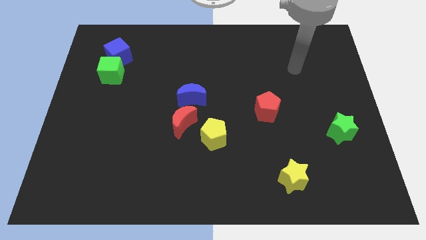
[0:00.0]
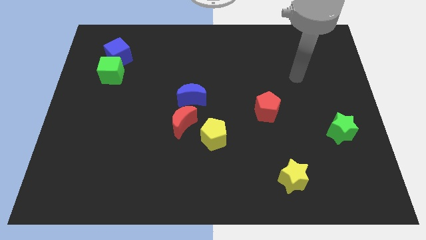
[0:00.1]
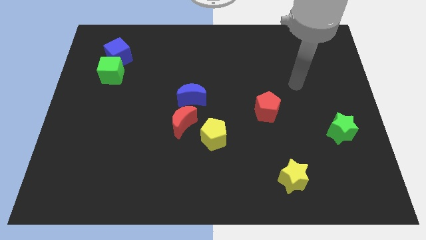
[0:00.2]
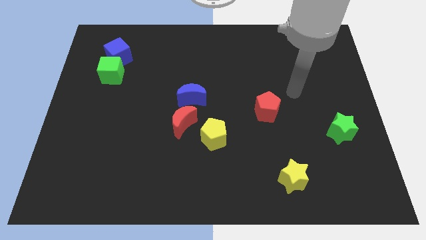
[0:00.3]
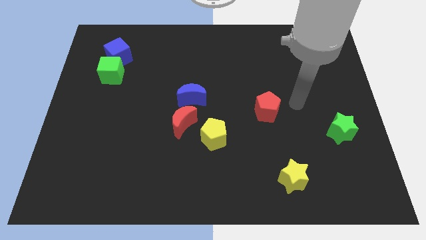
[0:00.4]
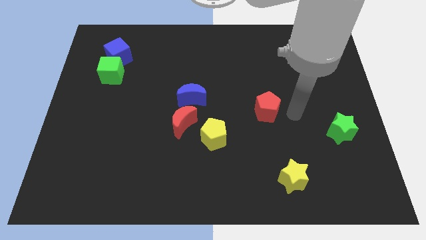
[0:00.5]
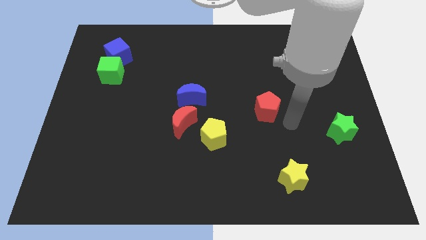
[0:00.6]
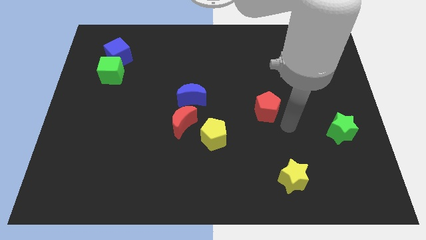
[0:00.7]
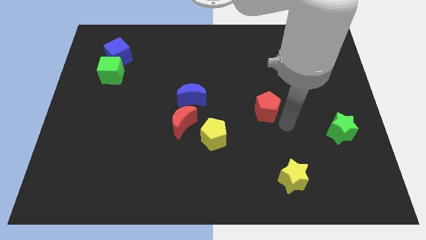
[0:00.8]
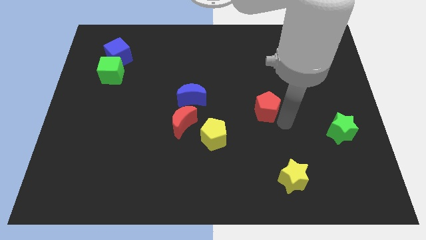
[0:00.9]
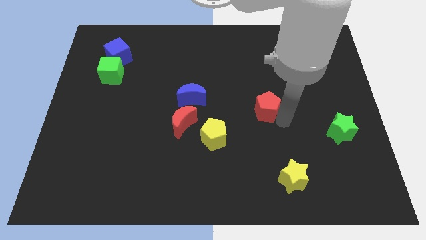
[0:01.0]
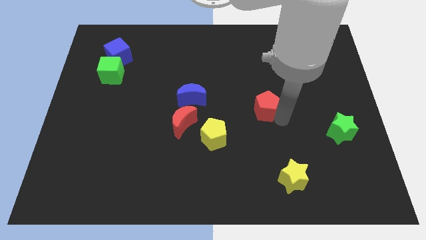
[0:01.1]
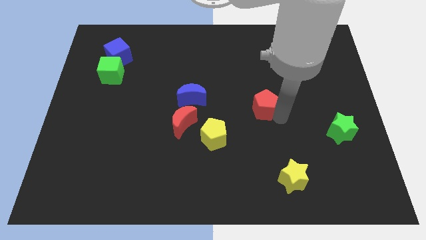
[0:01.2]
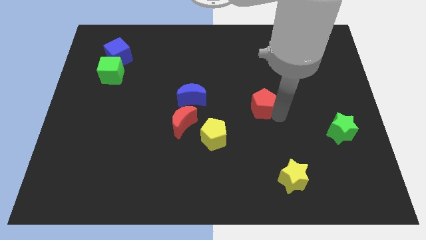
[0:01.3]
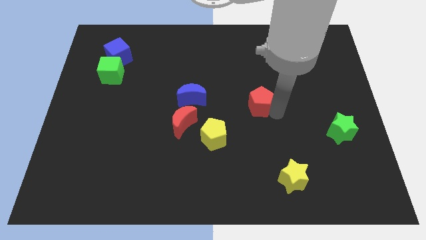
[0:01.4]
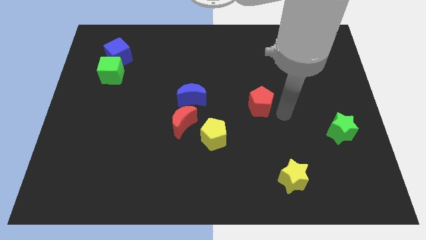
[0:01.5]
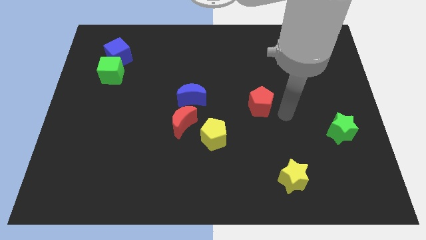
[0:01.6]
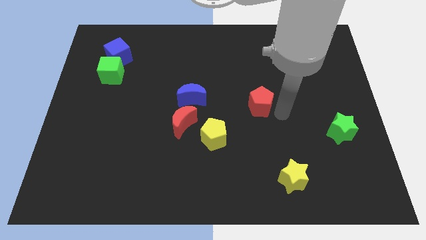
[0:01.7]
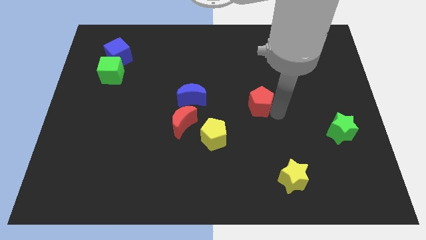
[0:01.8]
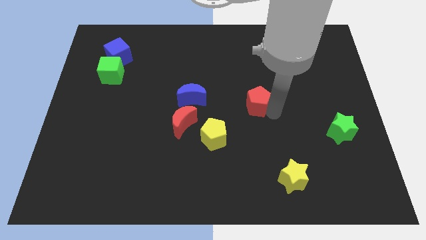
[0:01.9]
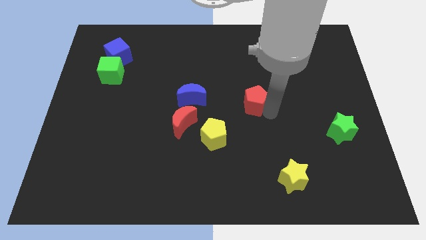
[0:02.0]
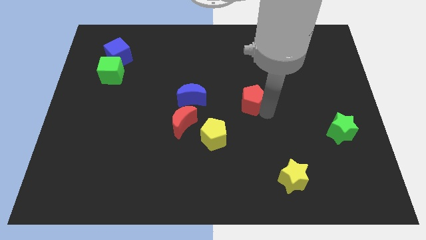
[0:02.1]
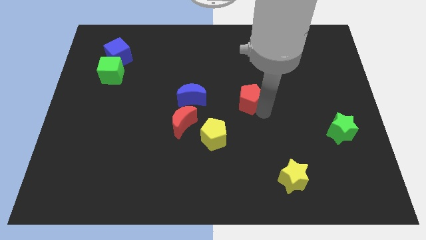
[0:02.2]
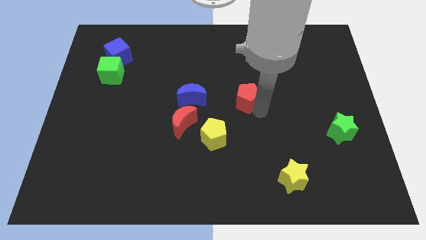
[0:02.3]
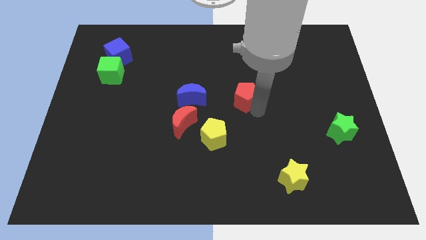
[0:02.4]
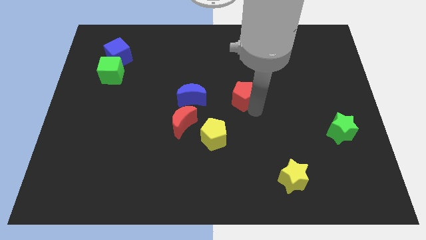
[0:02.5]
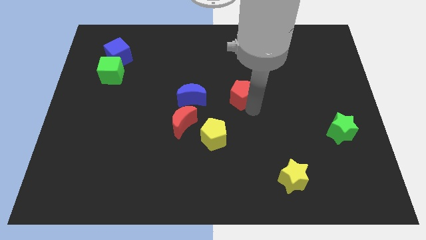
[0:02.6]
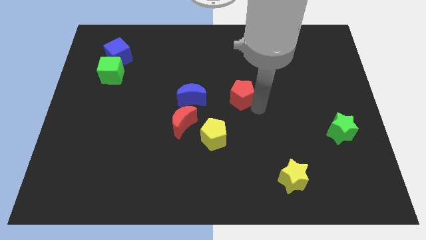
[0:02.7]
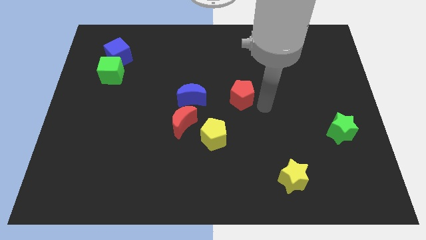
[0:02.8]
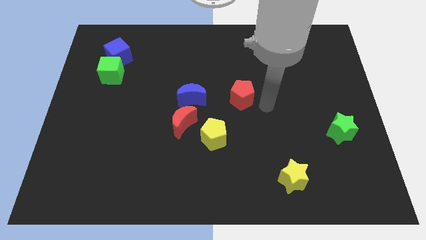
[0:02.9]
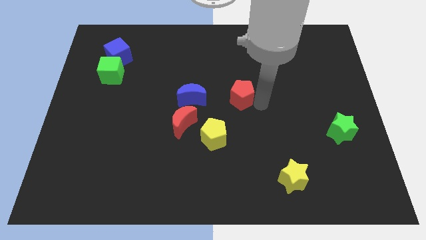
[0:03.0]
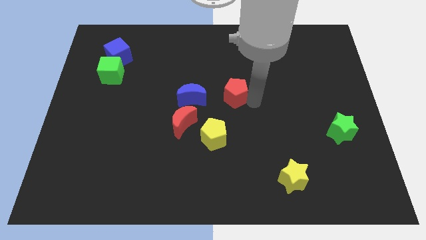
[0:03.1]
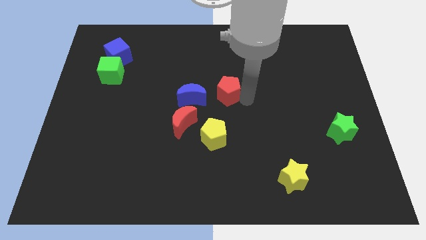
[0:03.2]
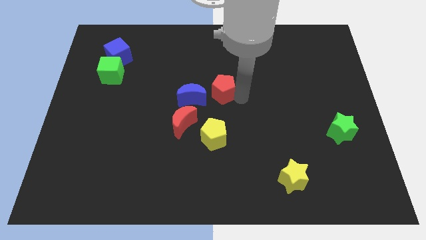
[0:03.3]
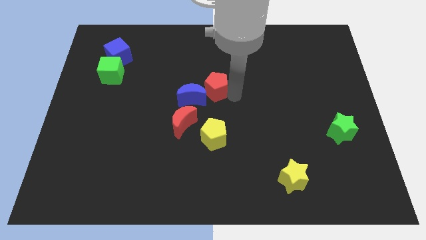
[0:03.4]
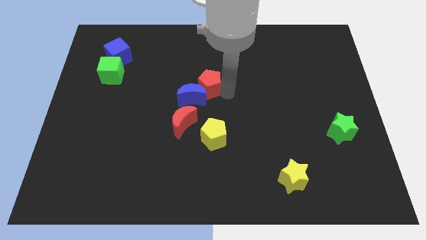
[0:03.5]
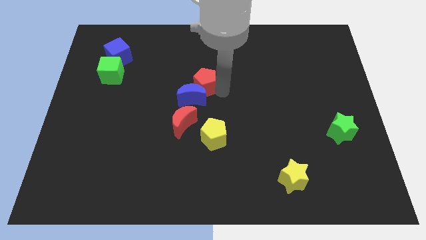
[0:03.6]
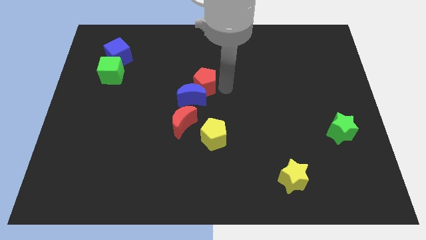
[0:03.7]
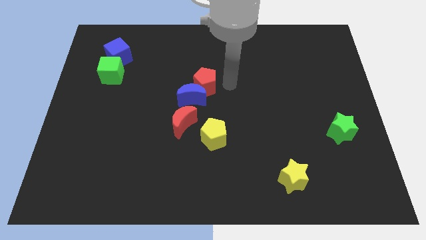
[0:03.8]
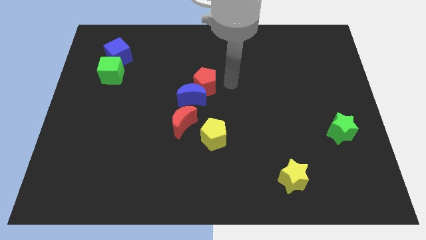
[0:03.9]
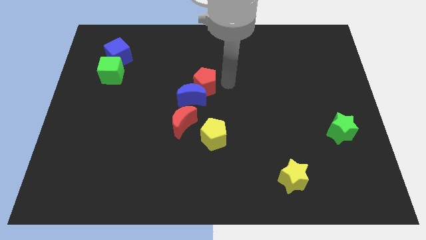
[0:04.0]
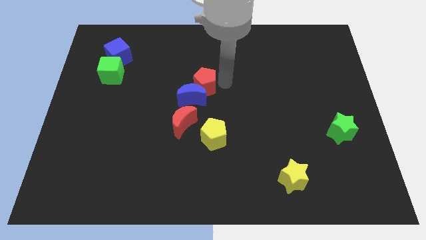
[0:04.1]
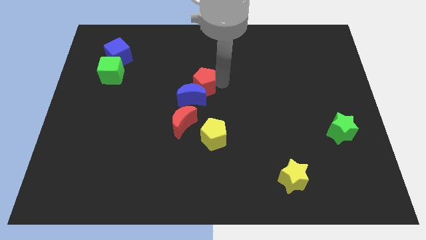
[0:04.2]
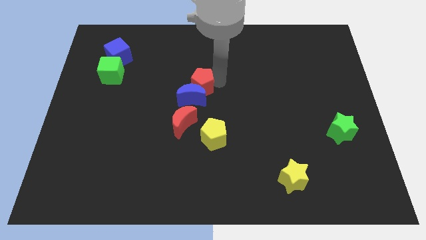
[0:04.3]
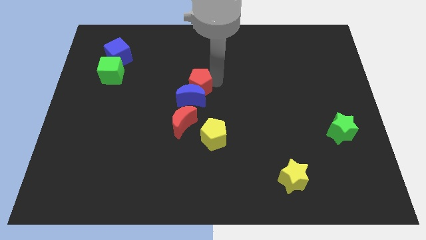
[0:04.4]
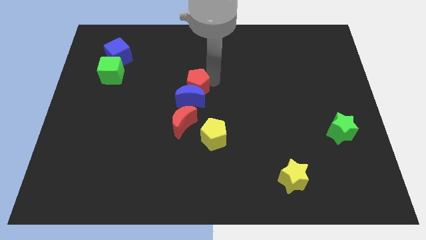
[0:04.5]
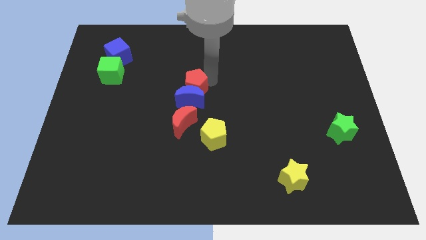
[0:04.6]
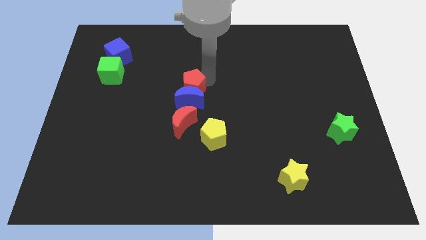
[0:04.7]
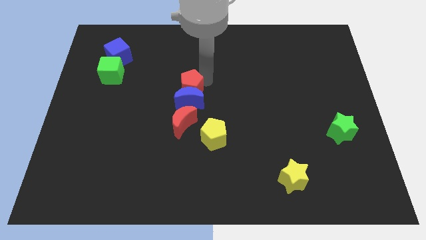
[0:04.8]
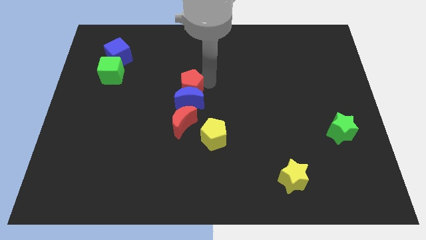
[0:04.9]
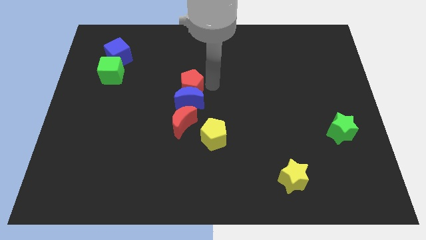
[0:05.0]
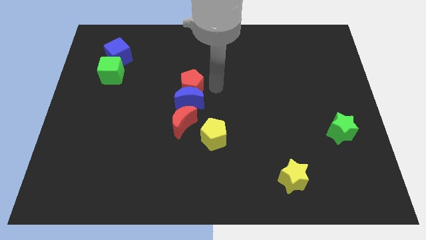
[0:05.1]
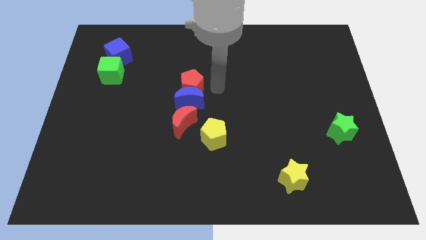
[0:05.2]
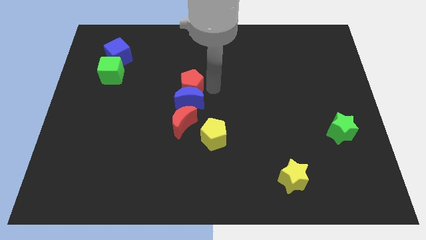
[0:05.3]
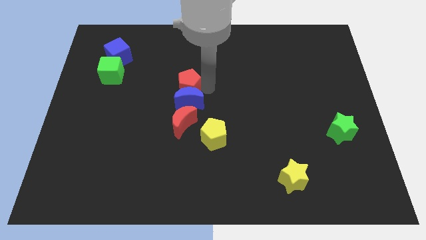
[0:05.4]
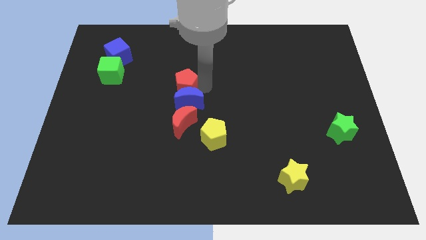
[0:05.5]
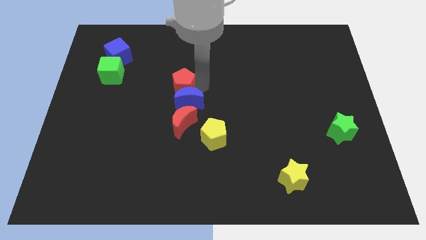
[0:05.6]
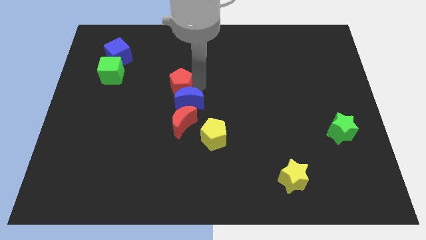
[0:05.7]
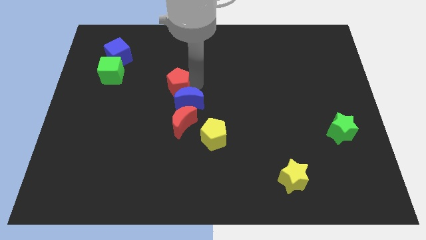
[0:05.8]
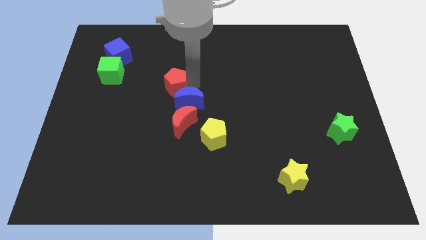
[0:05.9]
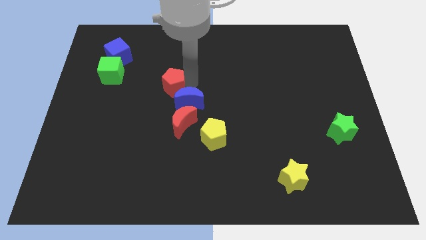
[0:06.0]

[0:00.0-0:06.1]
push the red pentagon left

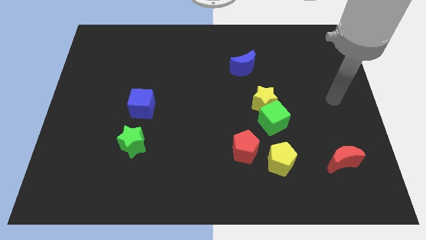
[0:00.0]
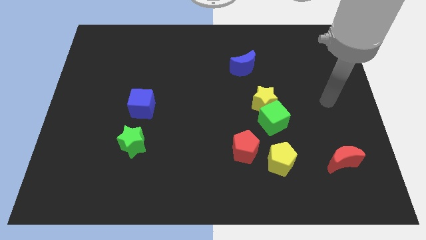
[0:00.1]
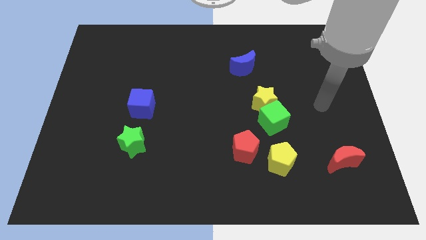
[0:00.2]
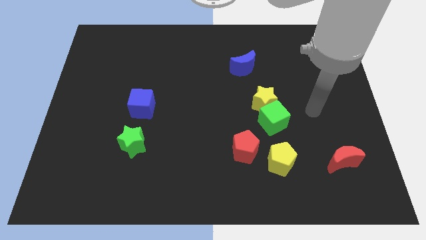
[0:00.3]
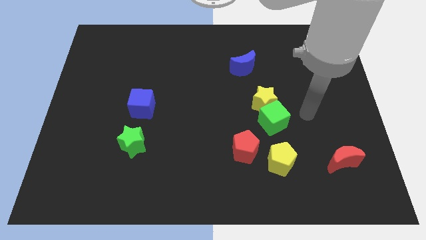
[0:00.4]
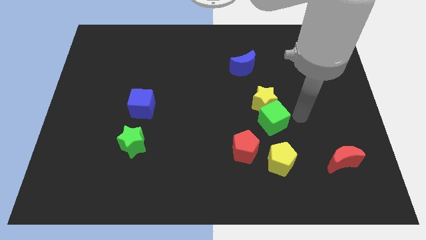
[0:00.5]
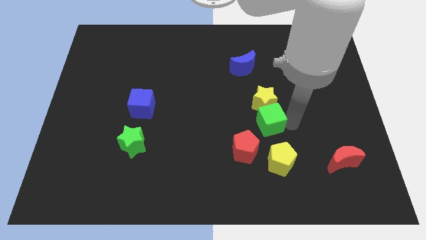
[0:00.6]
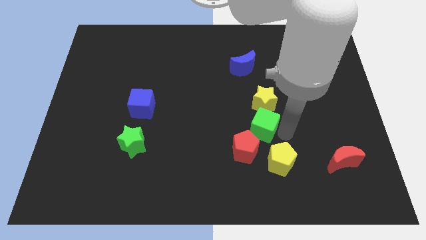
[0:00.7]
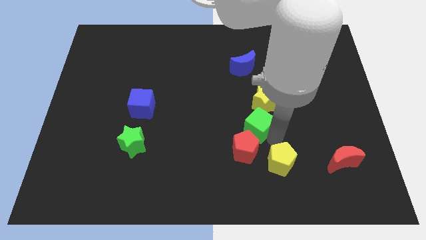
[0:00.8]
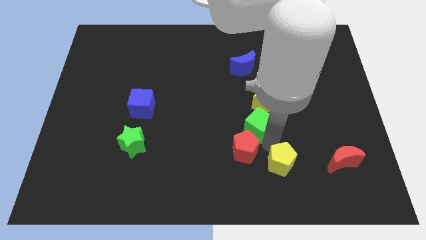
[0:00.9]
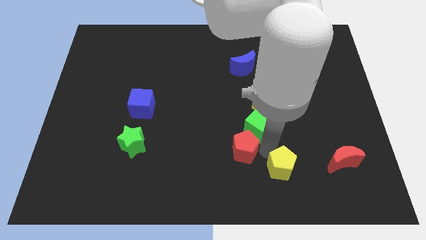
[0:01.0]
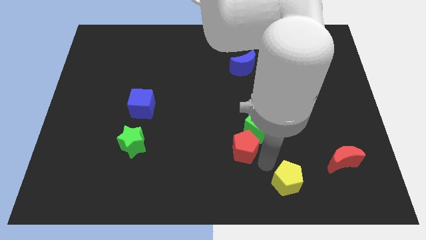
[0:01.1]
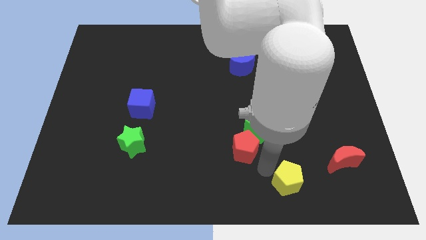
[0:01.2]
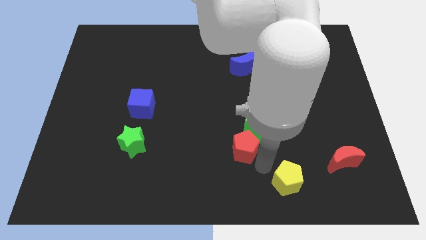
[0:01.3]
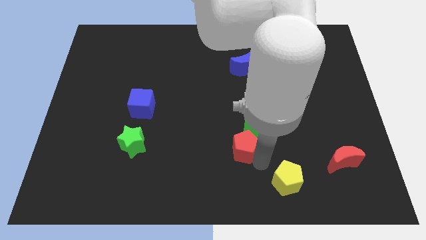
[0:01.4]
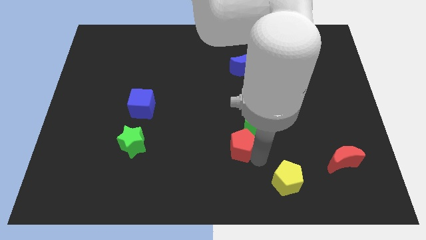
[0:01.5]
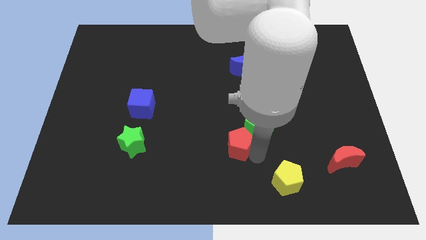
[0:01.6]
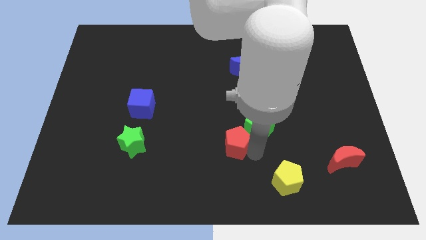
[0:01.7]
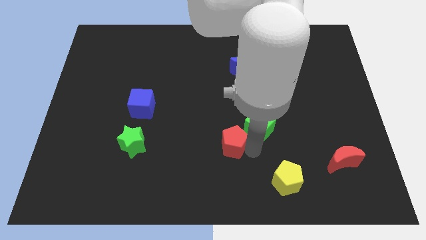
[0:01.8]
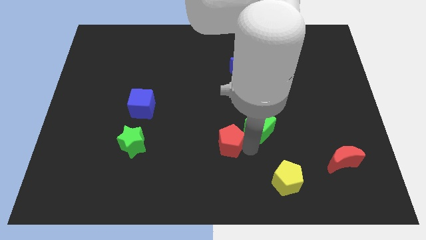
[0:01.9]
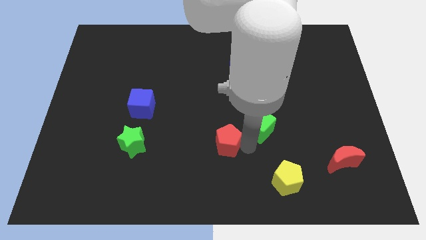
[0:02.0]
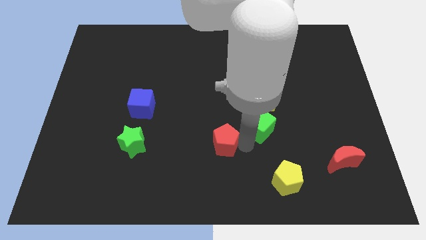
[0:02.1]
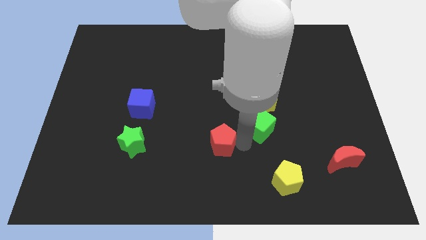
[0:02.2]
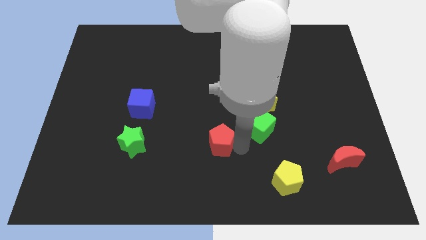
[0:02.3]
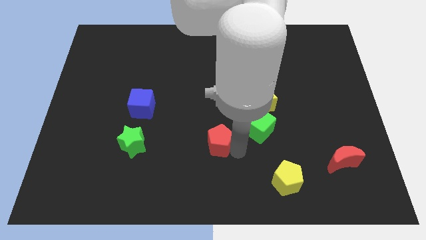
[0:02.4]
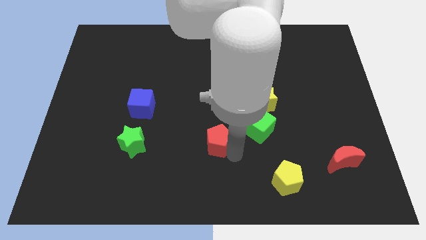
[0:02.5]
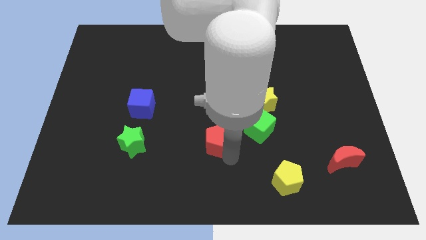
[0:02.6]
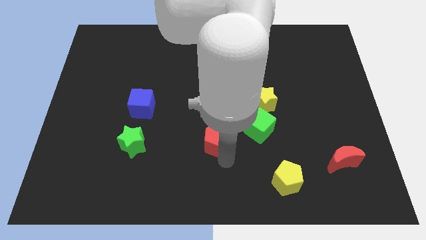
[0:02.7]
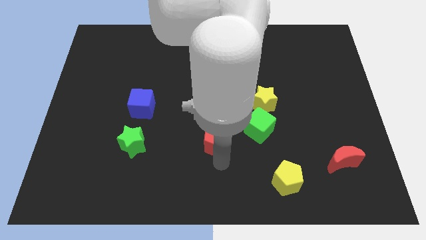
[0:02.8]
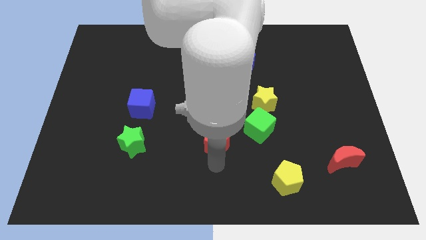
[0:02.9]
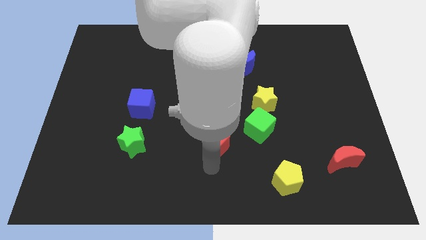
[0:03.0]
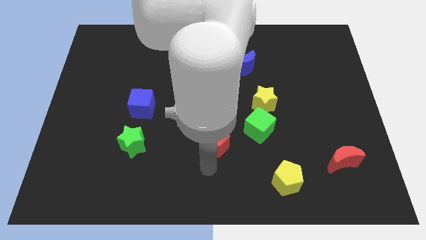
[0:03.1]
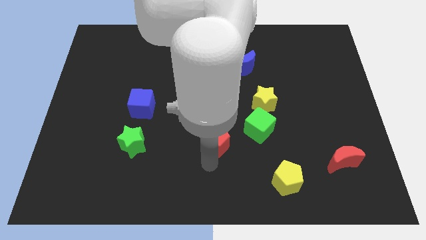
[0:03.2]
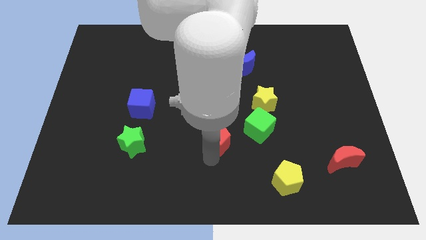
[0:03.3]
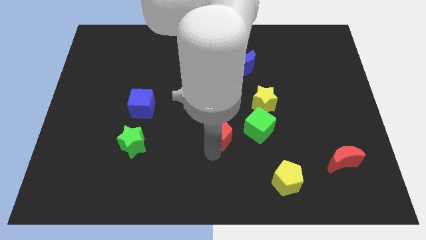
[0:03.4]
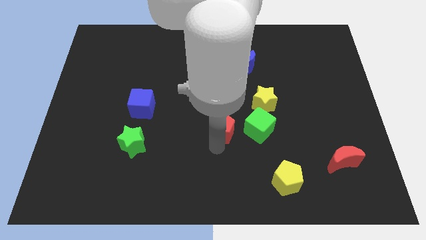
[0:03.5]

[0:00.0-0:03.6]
move the red pentagon a little bit upwards and to the left diagonally
